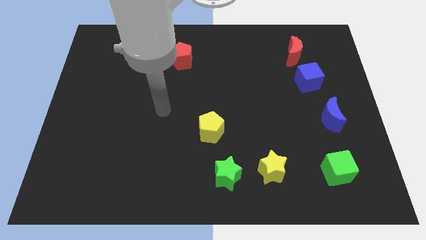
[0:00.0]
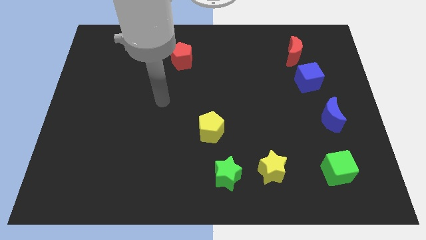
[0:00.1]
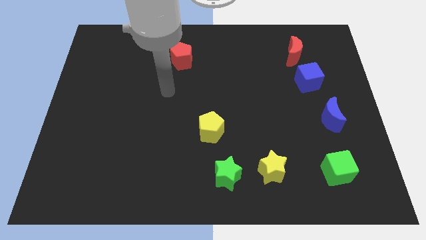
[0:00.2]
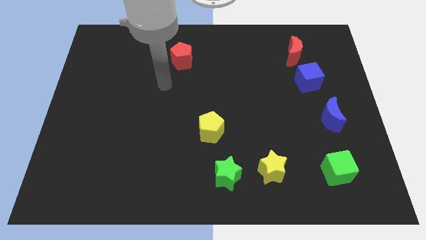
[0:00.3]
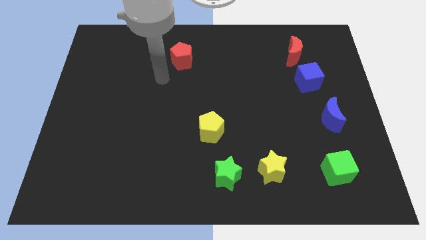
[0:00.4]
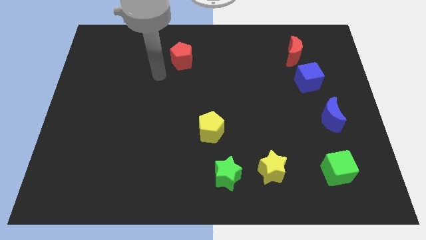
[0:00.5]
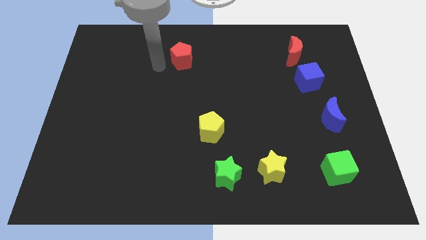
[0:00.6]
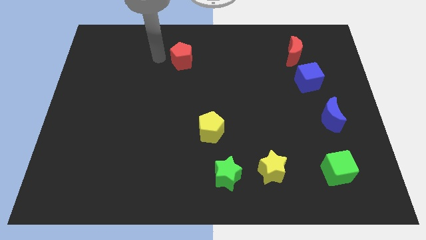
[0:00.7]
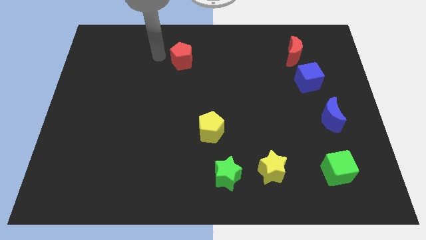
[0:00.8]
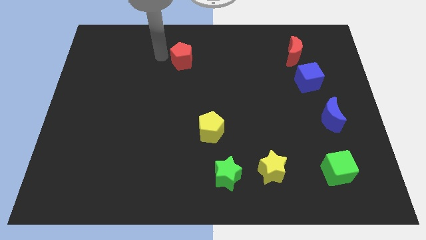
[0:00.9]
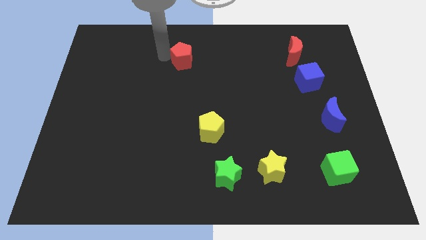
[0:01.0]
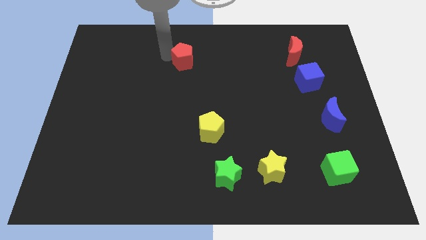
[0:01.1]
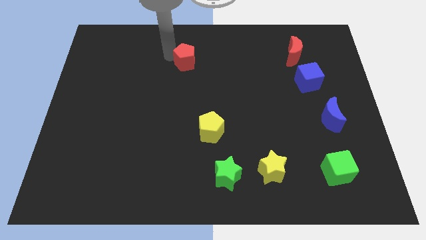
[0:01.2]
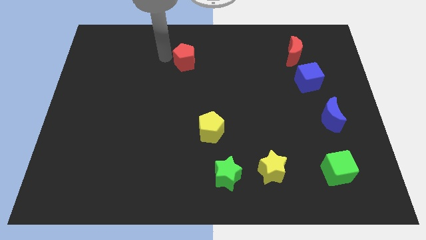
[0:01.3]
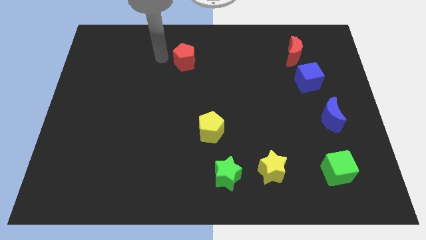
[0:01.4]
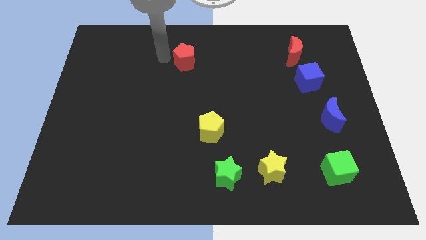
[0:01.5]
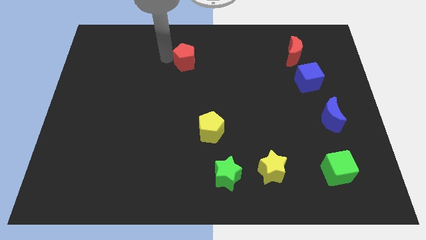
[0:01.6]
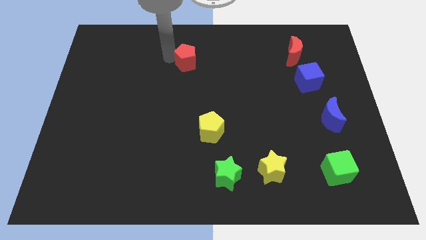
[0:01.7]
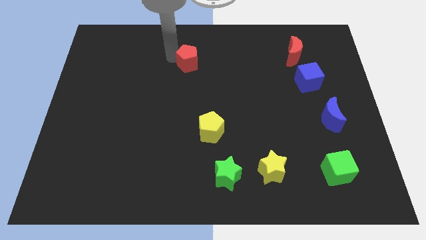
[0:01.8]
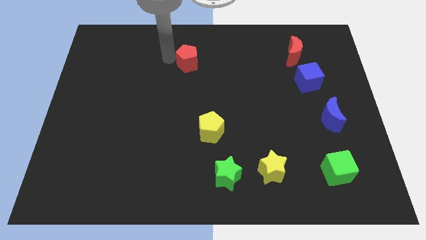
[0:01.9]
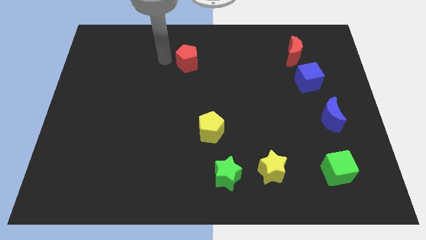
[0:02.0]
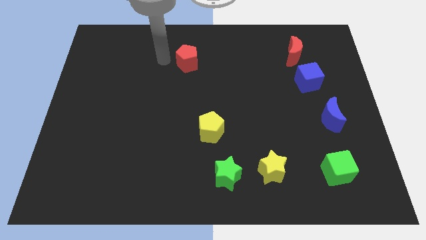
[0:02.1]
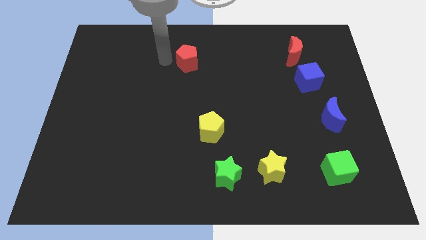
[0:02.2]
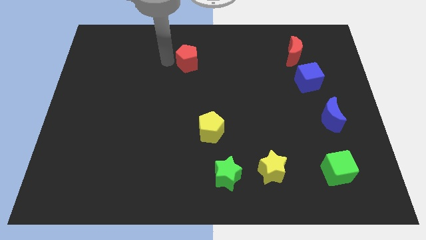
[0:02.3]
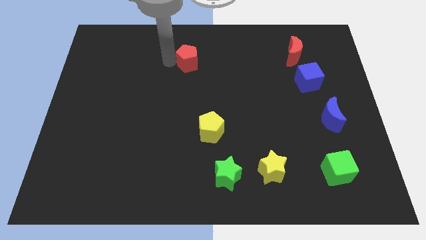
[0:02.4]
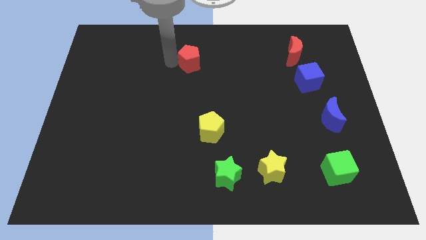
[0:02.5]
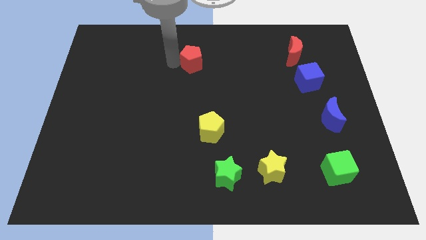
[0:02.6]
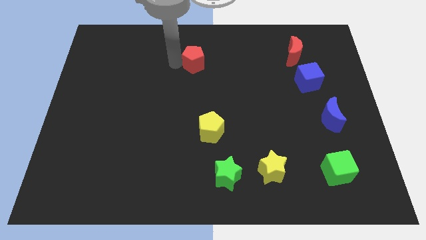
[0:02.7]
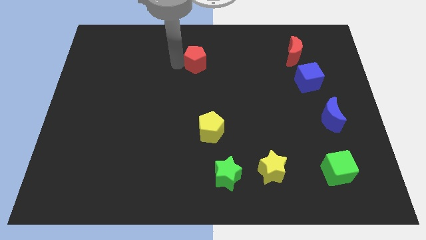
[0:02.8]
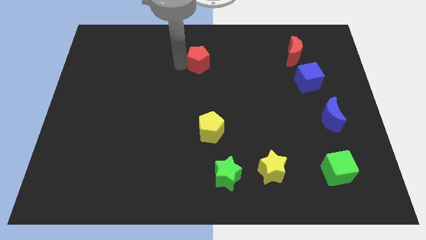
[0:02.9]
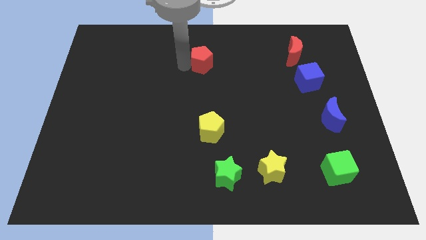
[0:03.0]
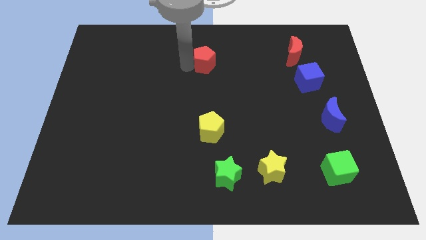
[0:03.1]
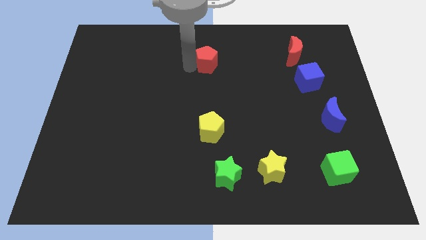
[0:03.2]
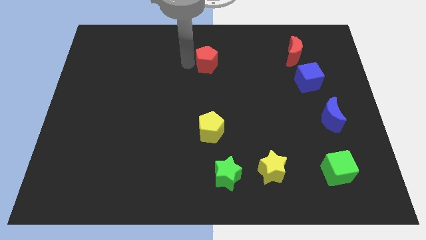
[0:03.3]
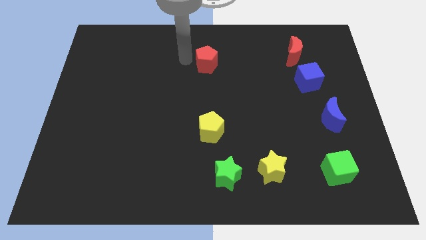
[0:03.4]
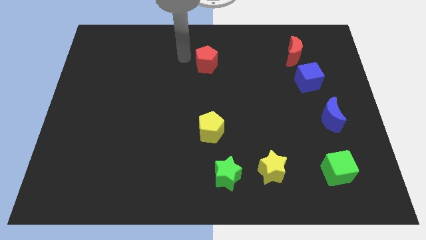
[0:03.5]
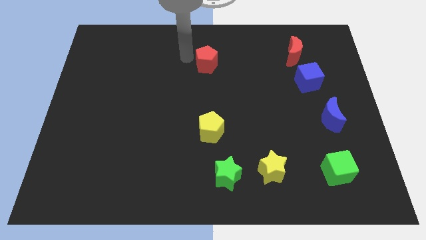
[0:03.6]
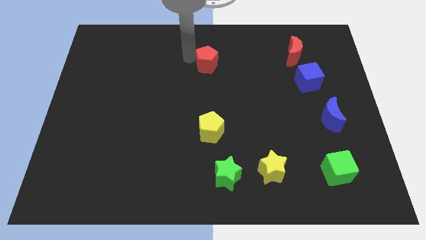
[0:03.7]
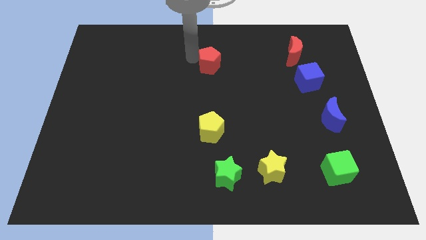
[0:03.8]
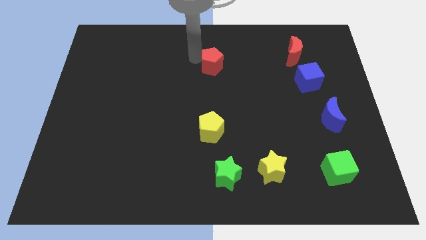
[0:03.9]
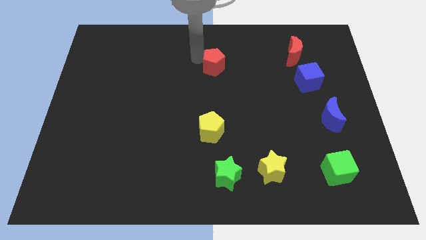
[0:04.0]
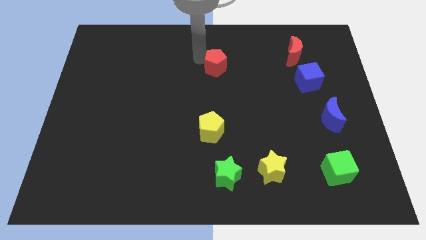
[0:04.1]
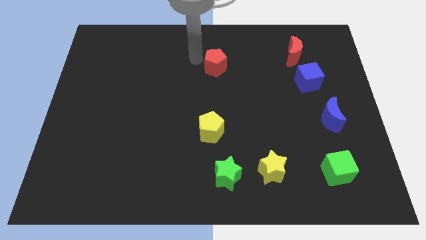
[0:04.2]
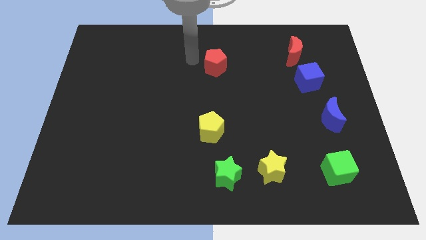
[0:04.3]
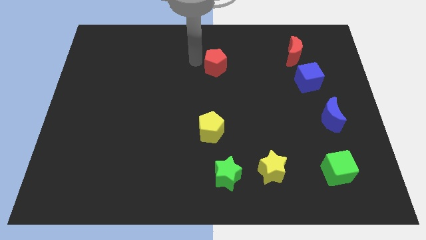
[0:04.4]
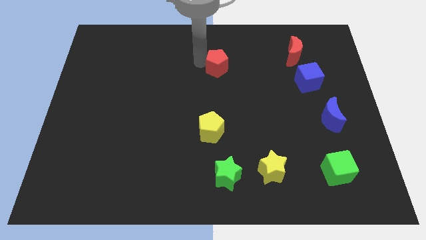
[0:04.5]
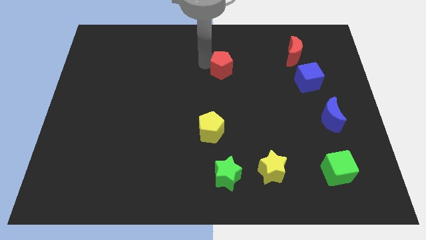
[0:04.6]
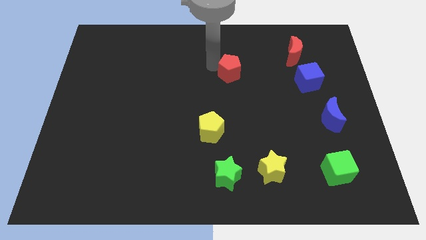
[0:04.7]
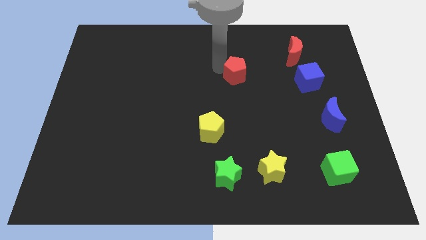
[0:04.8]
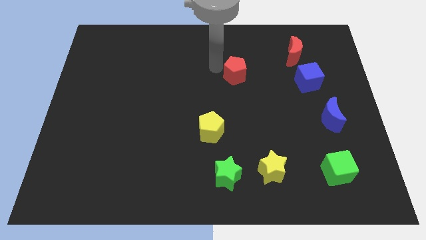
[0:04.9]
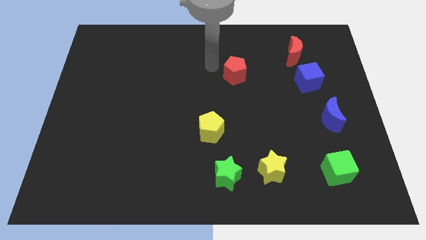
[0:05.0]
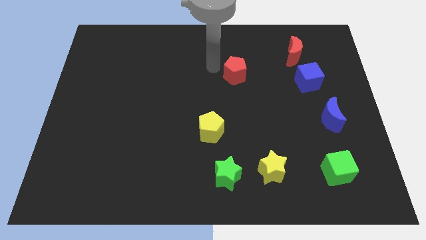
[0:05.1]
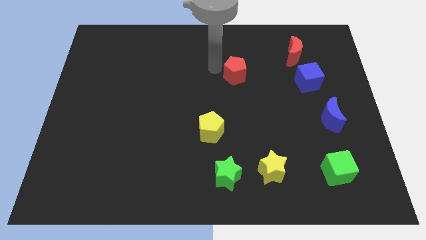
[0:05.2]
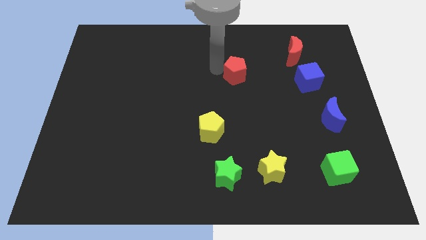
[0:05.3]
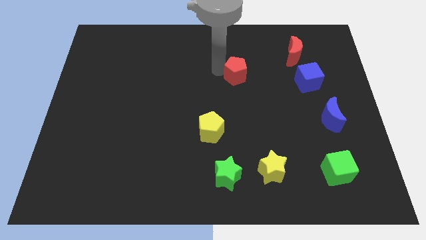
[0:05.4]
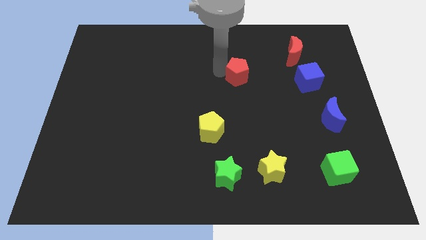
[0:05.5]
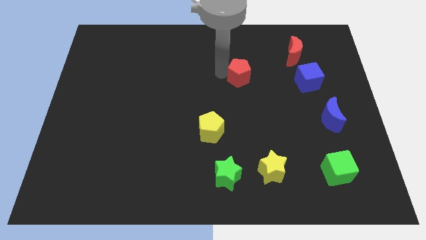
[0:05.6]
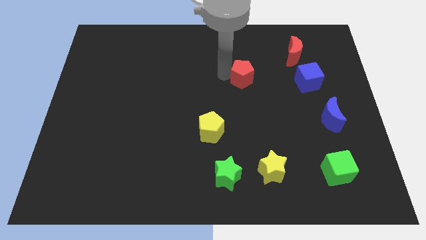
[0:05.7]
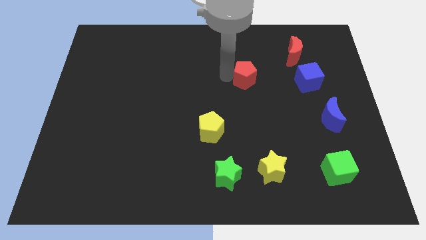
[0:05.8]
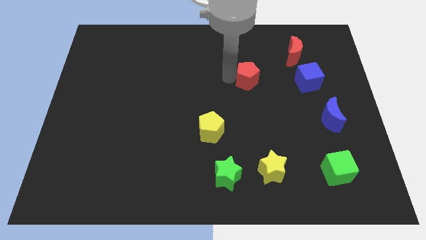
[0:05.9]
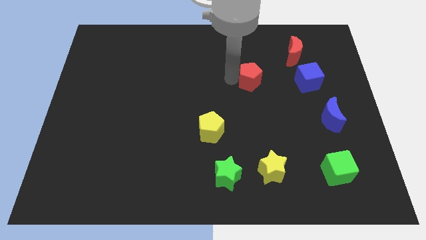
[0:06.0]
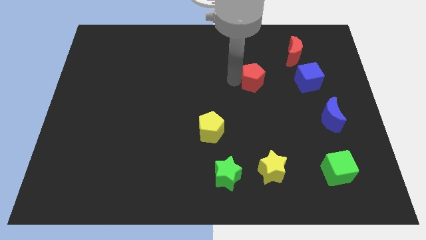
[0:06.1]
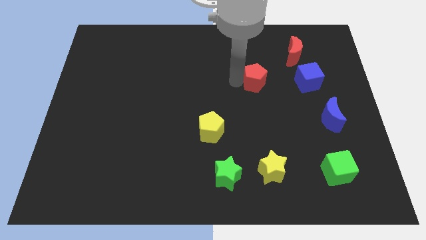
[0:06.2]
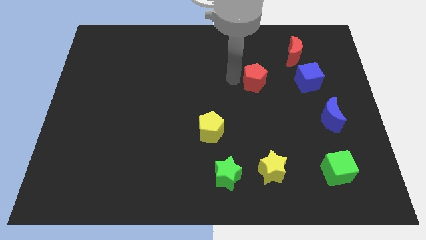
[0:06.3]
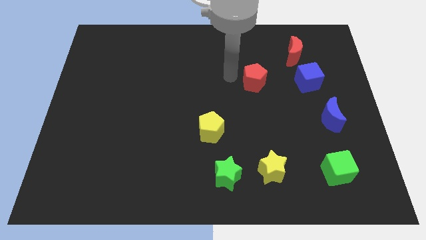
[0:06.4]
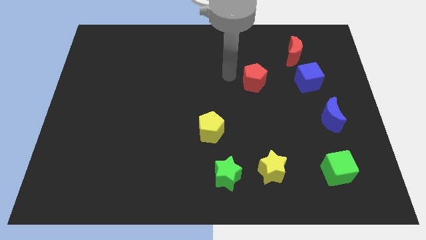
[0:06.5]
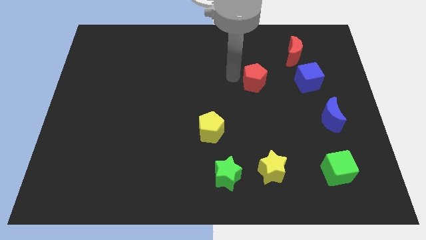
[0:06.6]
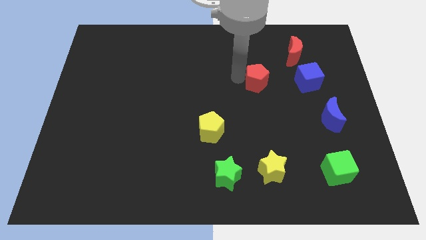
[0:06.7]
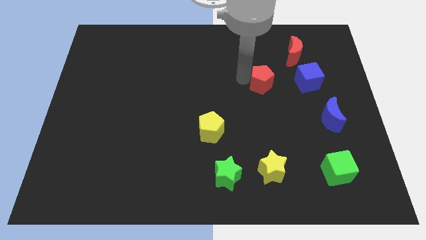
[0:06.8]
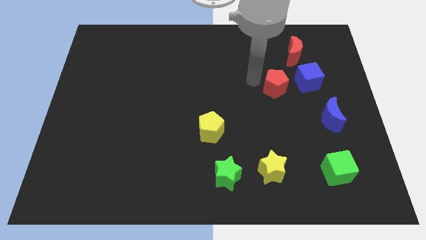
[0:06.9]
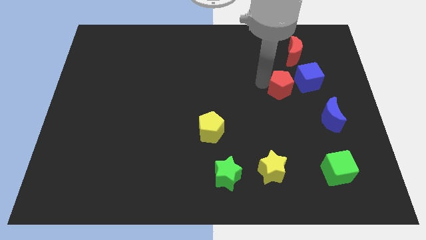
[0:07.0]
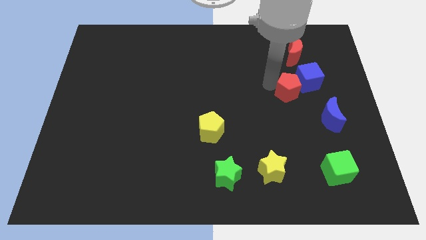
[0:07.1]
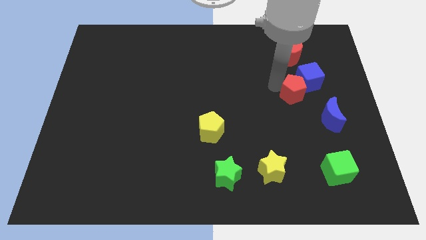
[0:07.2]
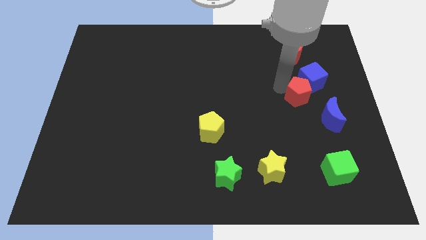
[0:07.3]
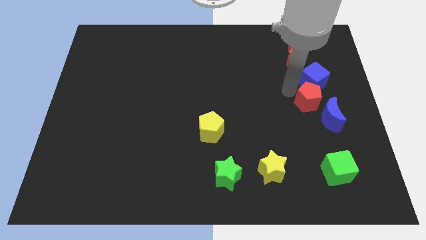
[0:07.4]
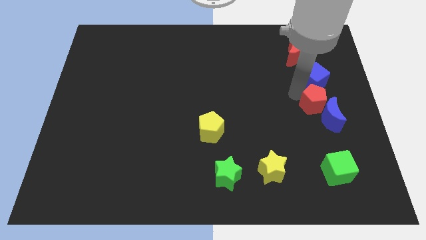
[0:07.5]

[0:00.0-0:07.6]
move the red pentagon close to the blue moon
